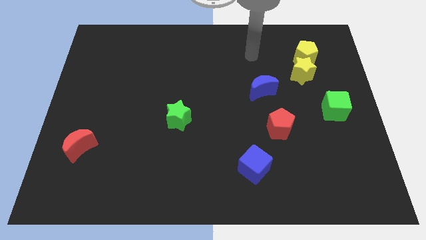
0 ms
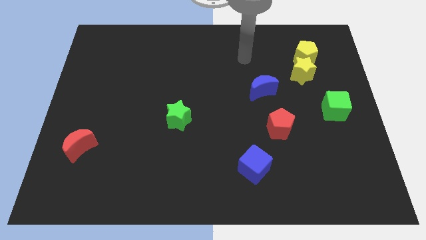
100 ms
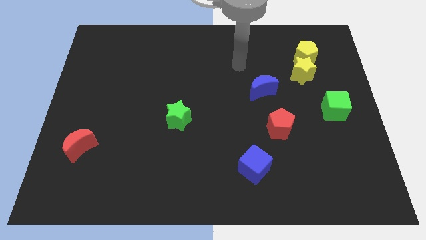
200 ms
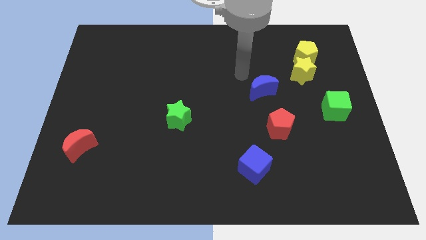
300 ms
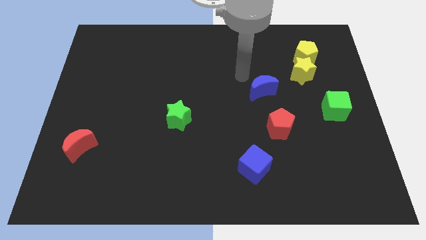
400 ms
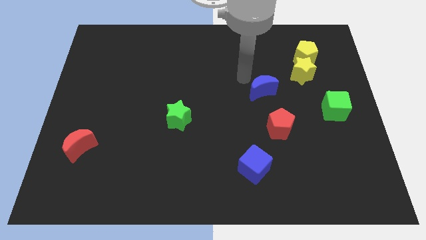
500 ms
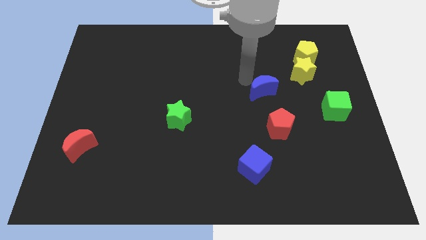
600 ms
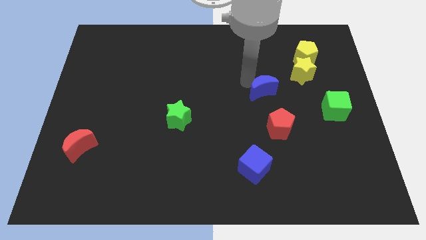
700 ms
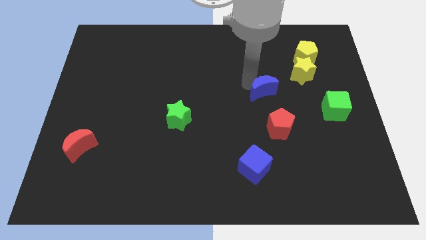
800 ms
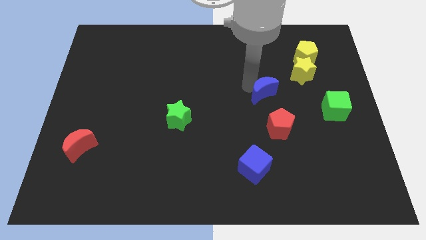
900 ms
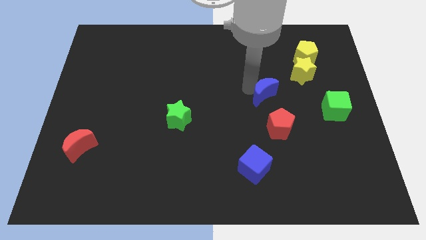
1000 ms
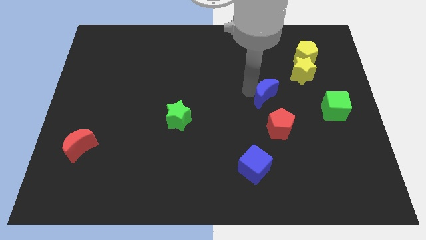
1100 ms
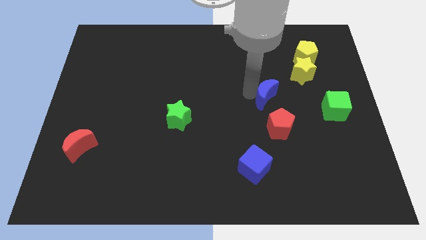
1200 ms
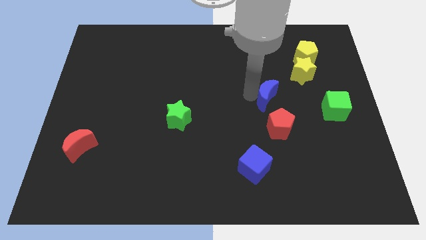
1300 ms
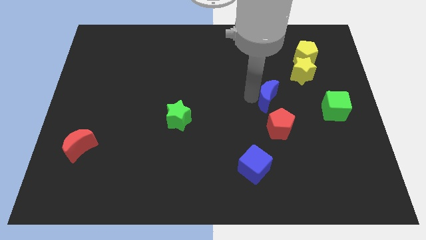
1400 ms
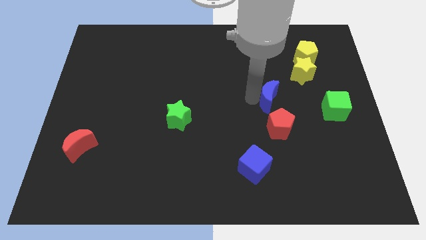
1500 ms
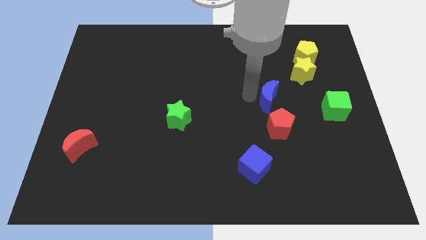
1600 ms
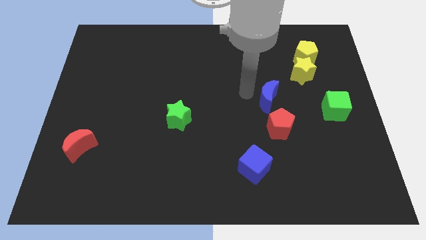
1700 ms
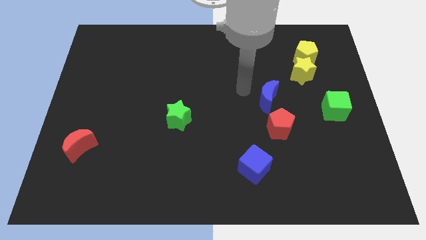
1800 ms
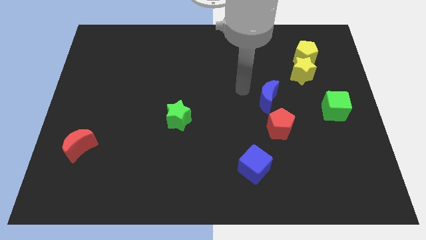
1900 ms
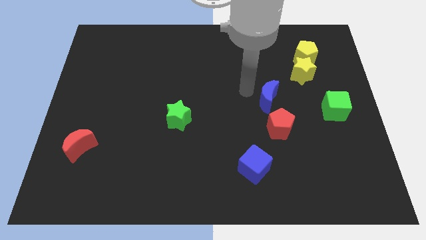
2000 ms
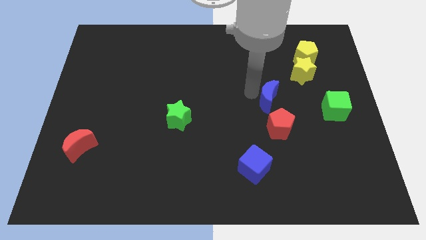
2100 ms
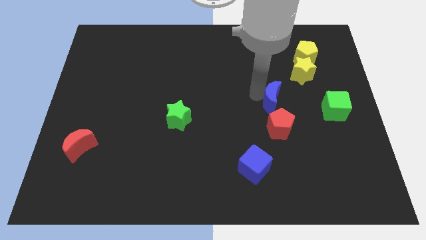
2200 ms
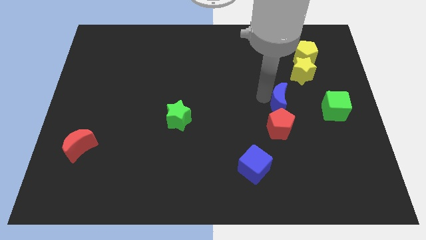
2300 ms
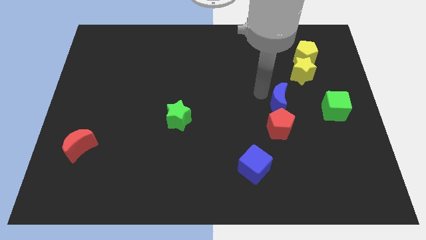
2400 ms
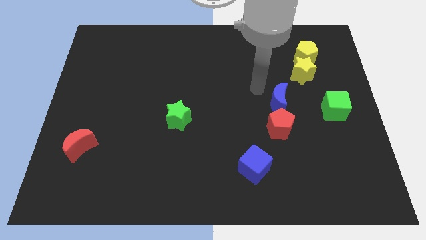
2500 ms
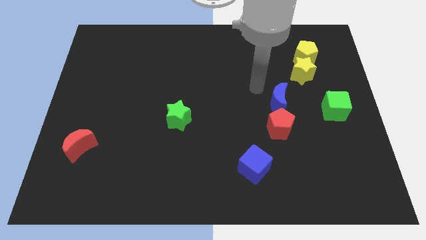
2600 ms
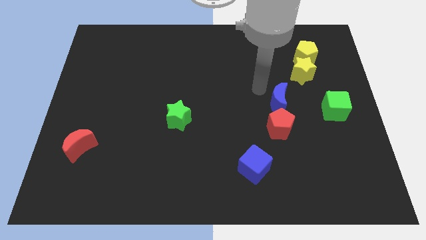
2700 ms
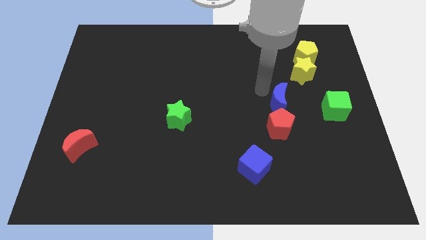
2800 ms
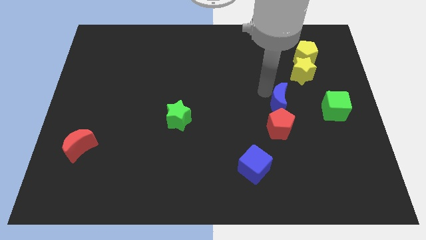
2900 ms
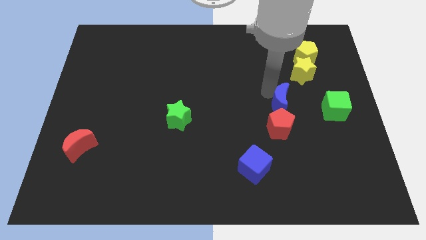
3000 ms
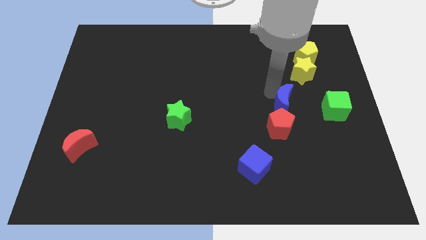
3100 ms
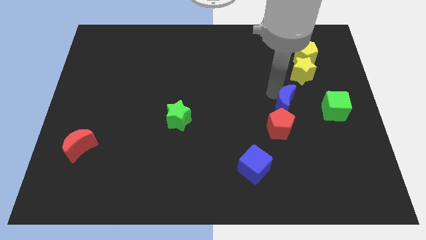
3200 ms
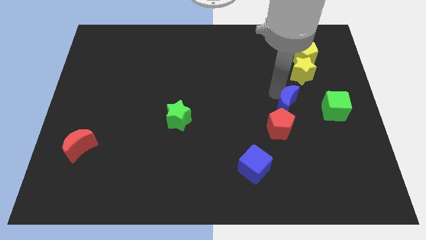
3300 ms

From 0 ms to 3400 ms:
slide the blue moon a little down and then to the right

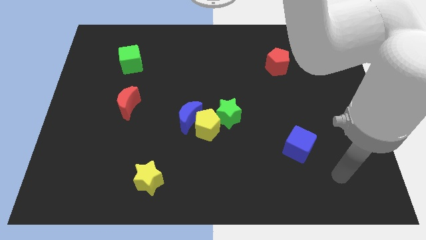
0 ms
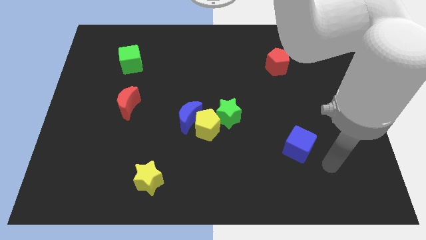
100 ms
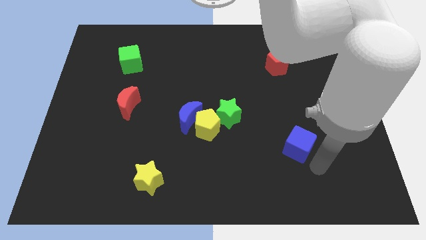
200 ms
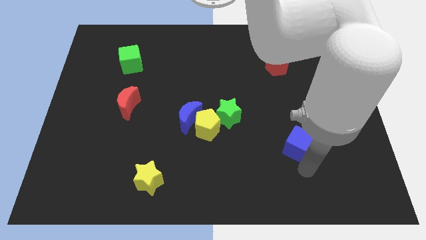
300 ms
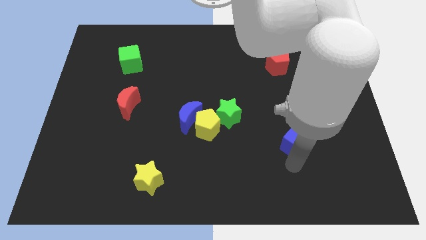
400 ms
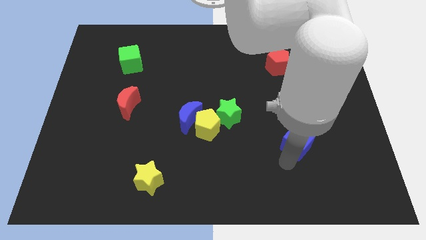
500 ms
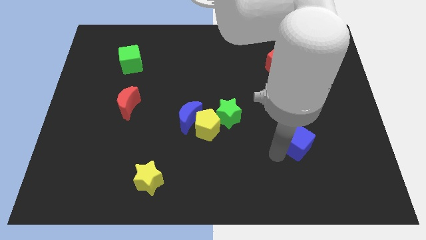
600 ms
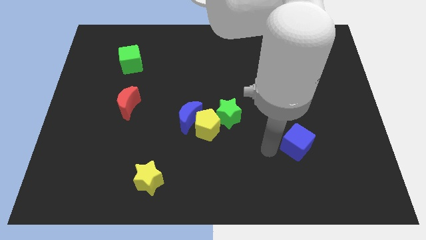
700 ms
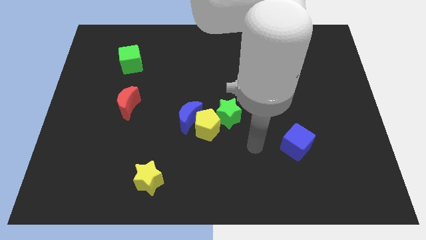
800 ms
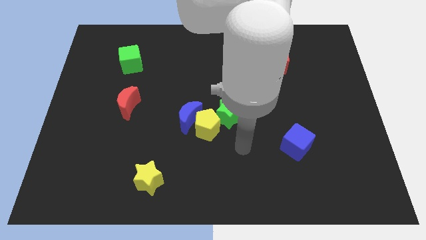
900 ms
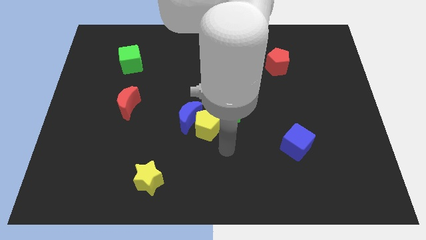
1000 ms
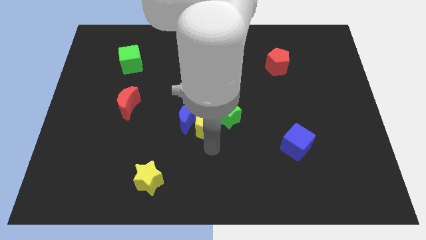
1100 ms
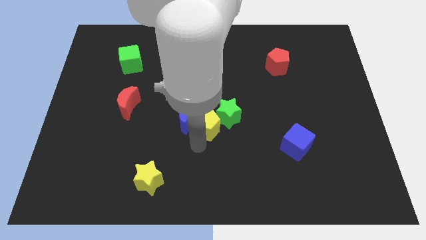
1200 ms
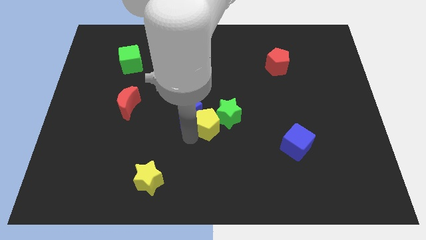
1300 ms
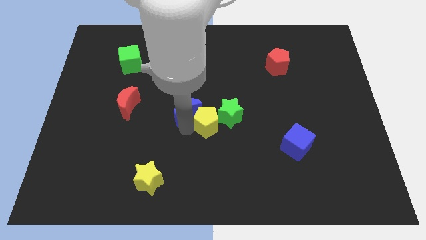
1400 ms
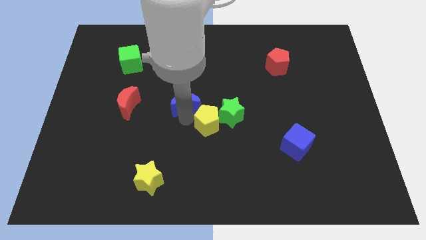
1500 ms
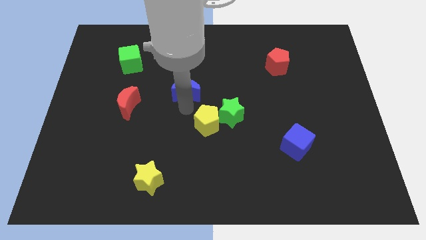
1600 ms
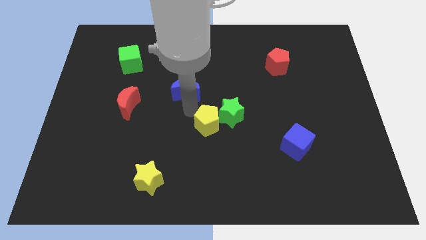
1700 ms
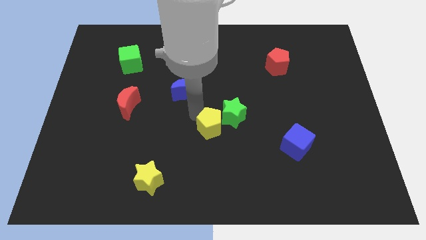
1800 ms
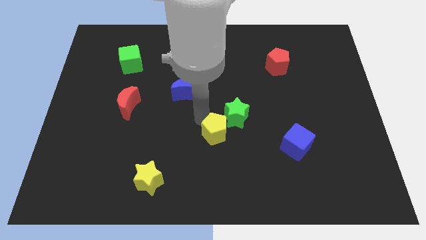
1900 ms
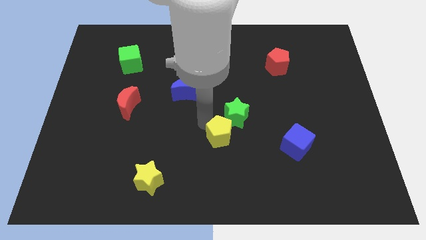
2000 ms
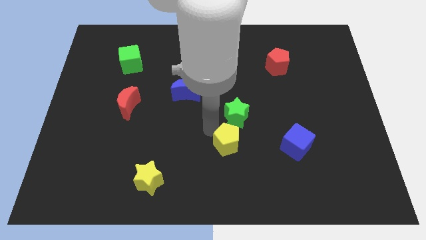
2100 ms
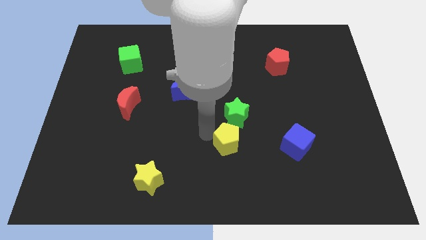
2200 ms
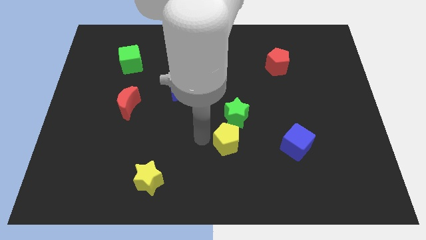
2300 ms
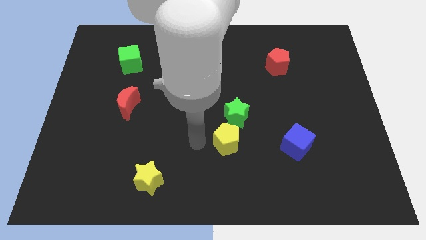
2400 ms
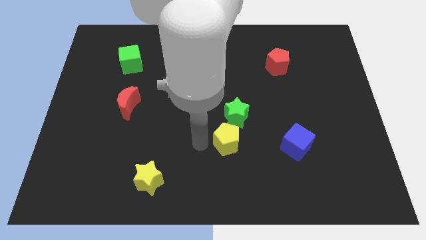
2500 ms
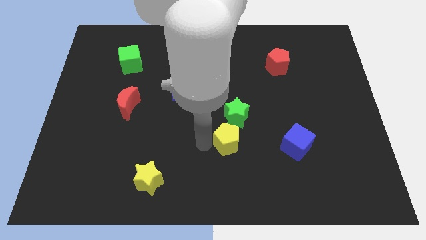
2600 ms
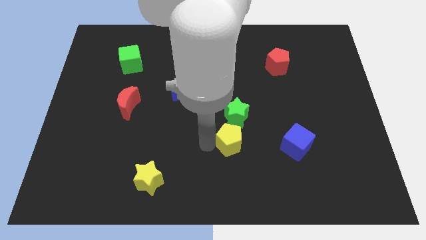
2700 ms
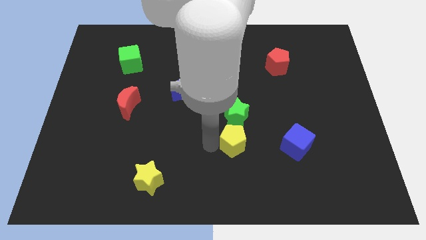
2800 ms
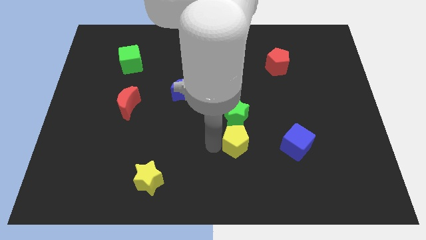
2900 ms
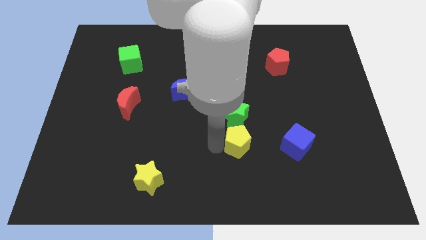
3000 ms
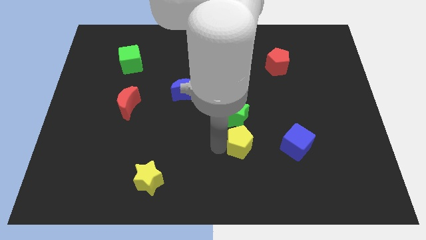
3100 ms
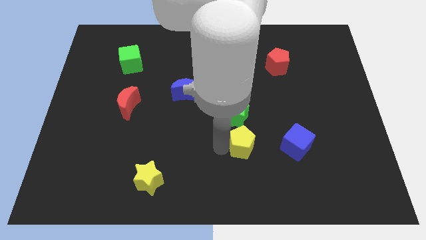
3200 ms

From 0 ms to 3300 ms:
push the yellow pentagon right a little bit

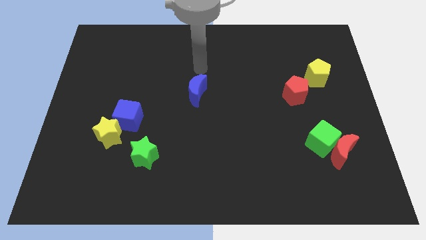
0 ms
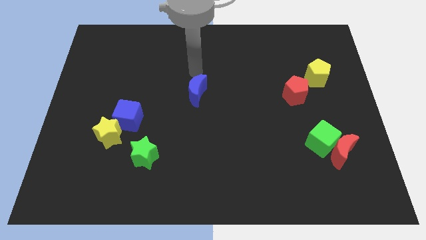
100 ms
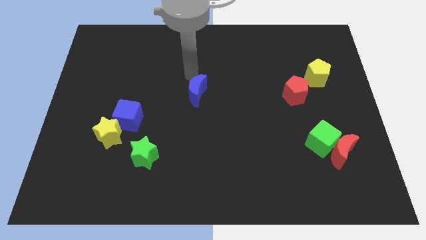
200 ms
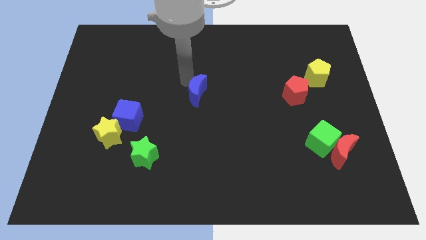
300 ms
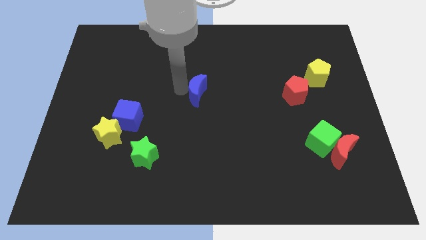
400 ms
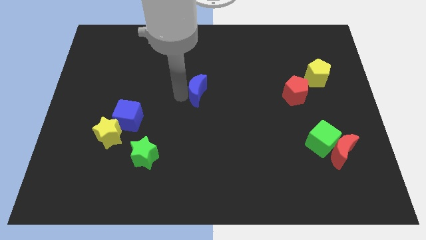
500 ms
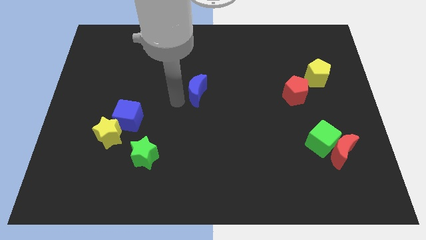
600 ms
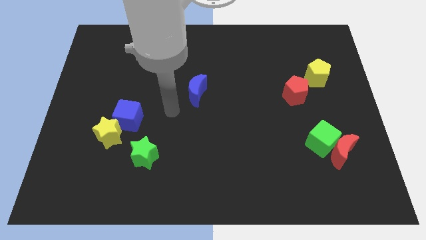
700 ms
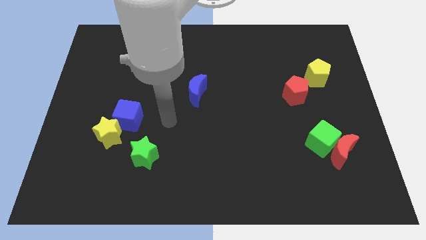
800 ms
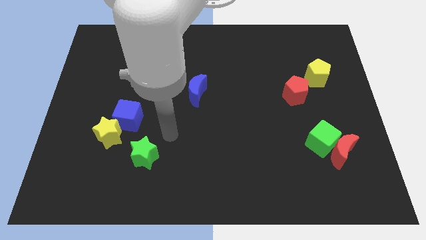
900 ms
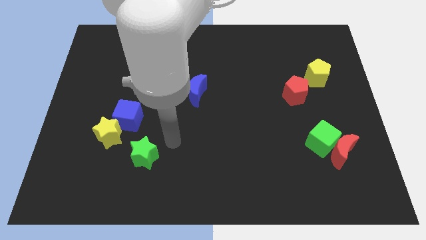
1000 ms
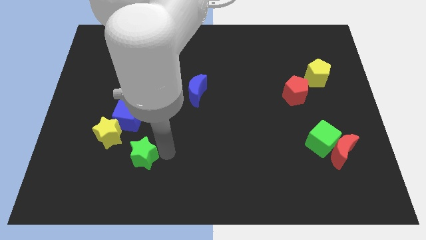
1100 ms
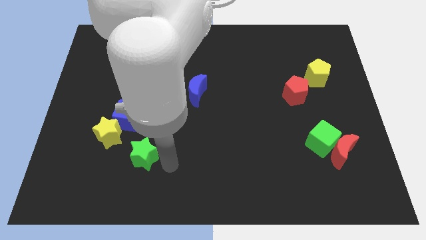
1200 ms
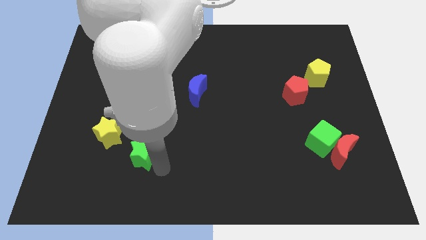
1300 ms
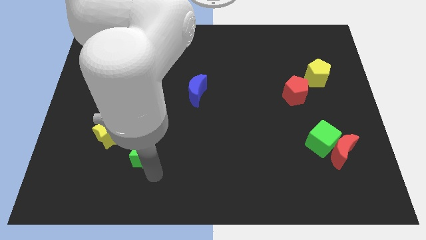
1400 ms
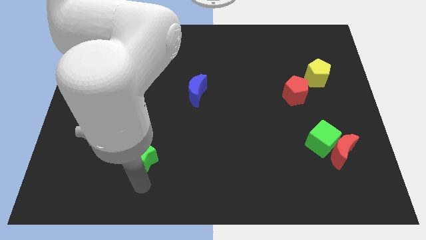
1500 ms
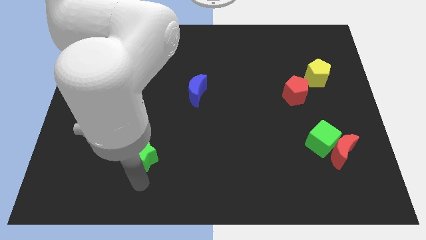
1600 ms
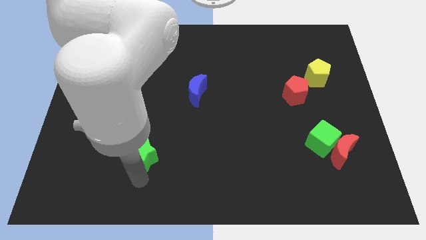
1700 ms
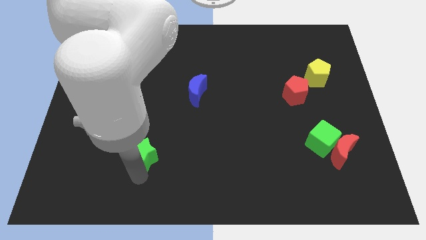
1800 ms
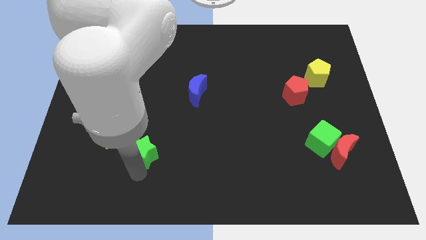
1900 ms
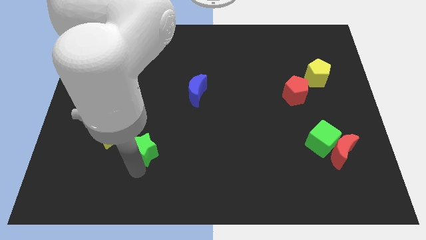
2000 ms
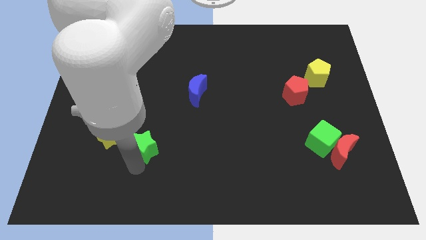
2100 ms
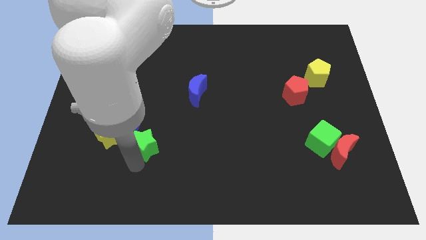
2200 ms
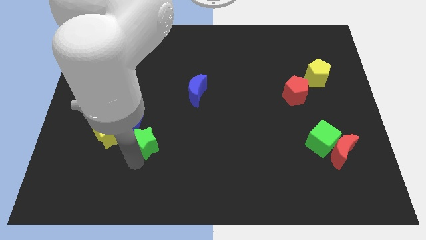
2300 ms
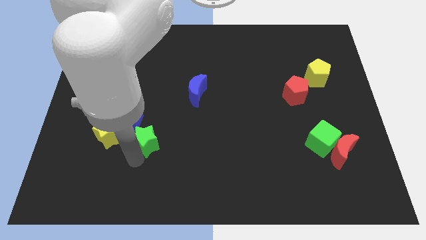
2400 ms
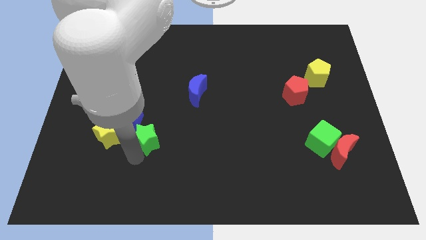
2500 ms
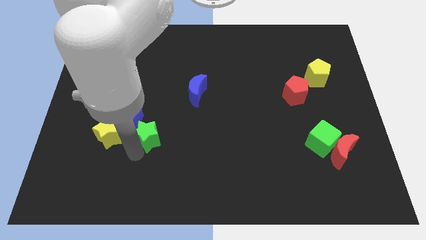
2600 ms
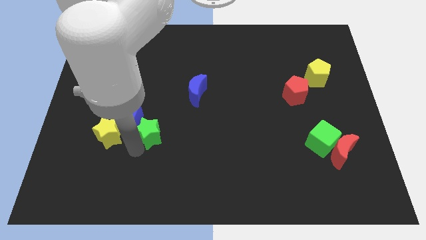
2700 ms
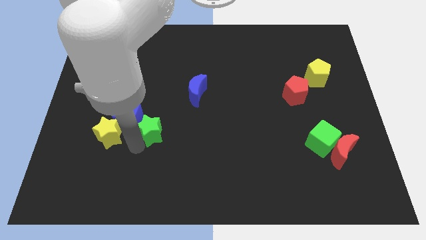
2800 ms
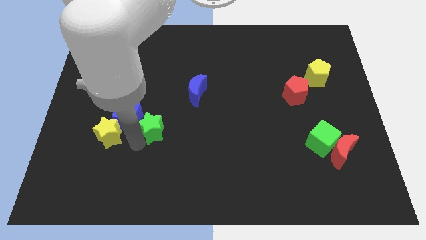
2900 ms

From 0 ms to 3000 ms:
slightly move the green star upwards
